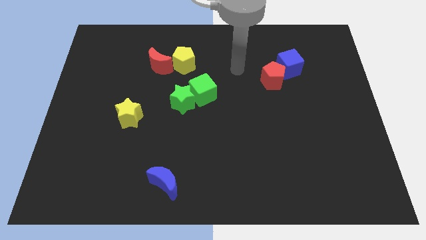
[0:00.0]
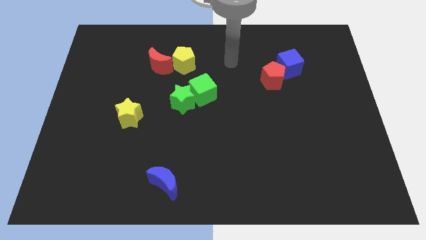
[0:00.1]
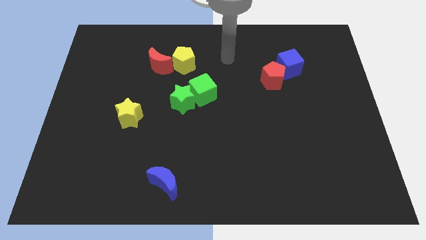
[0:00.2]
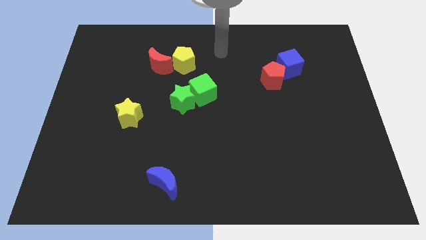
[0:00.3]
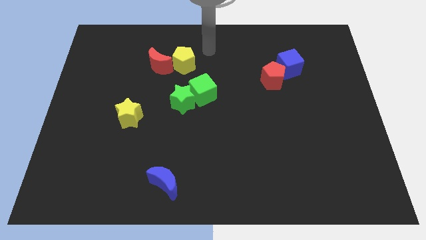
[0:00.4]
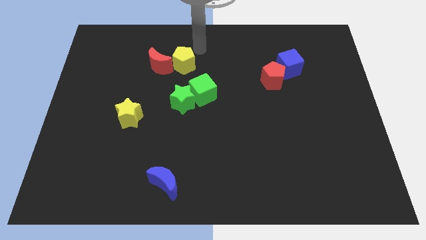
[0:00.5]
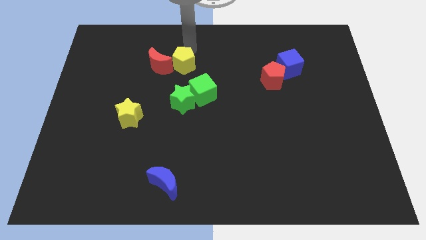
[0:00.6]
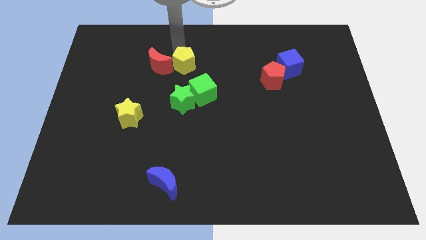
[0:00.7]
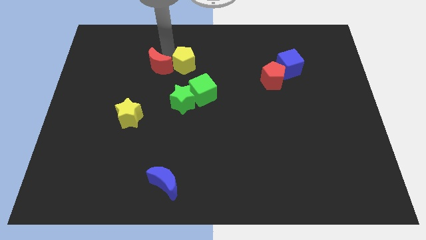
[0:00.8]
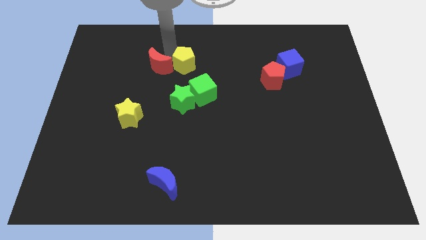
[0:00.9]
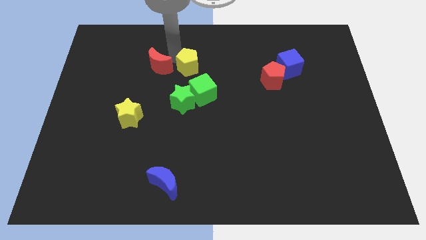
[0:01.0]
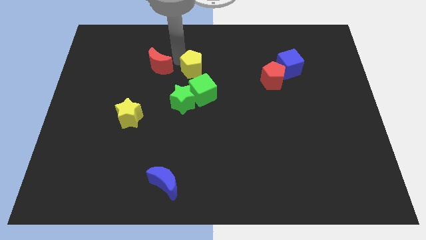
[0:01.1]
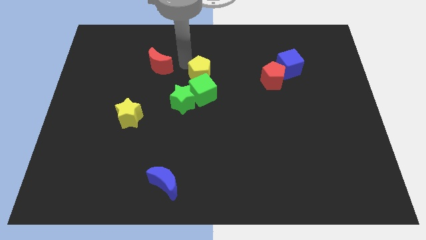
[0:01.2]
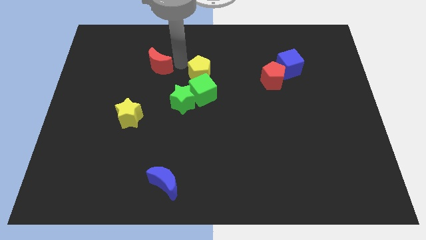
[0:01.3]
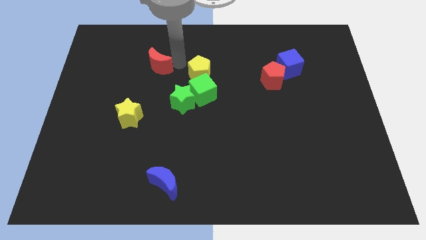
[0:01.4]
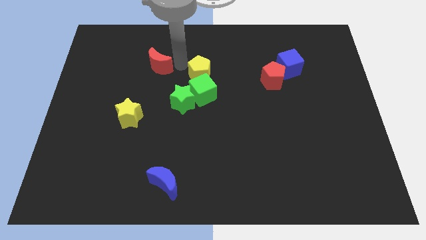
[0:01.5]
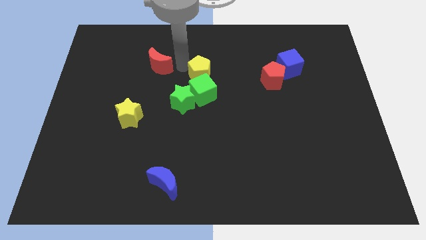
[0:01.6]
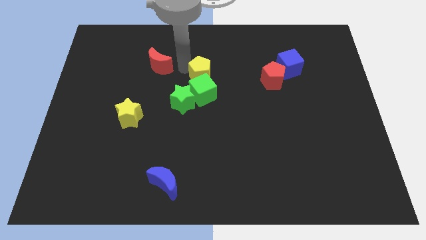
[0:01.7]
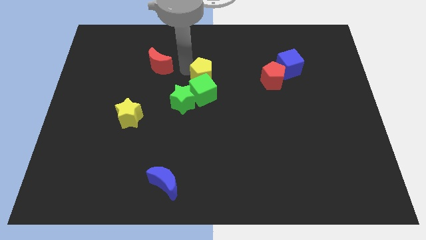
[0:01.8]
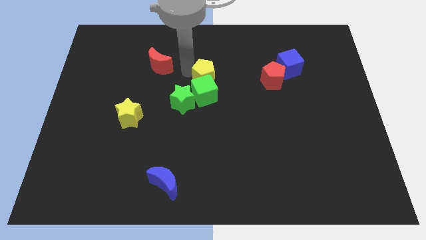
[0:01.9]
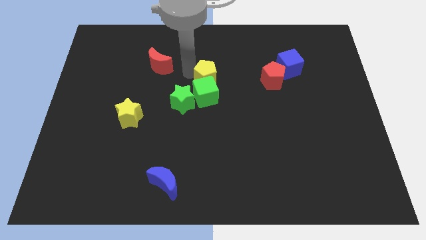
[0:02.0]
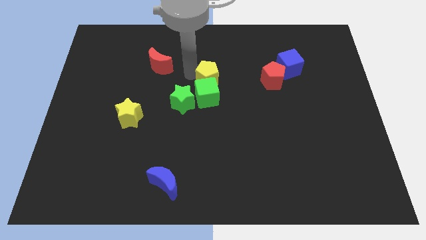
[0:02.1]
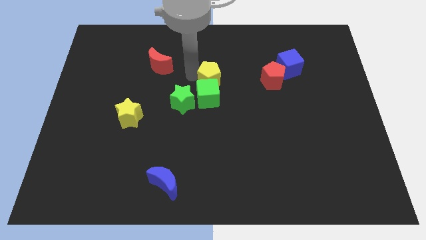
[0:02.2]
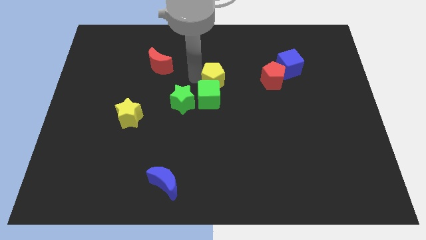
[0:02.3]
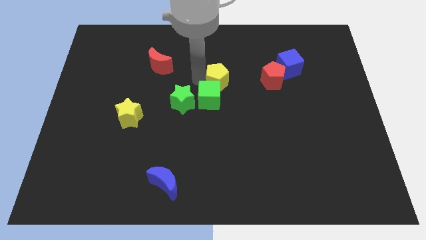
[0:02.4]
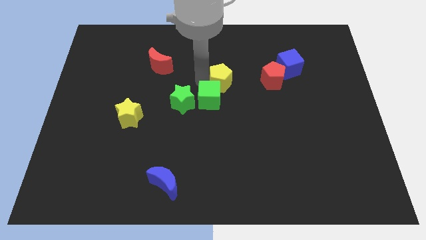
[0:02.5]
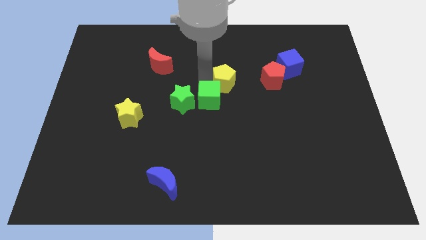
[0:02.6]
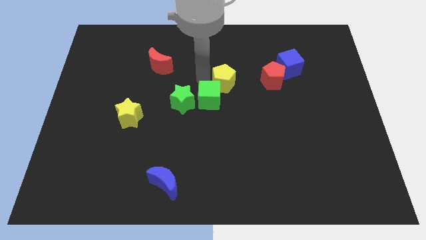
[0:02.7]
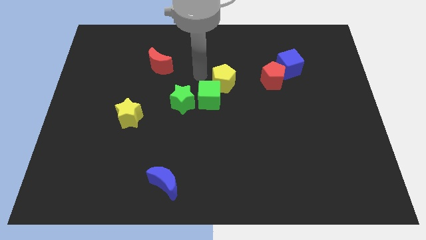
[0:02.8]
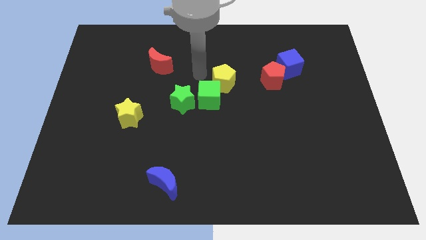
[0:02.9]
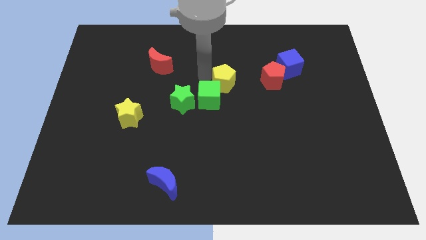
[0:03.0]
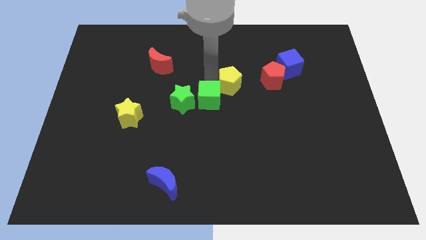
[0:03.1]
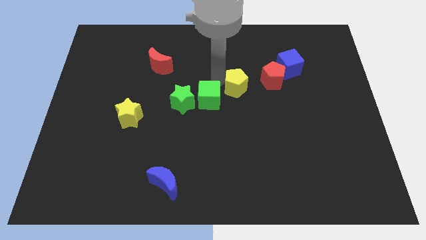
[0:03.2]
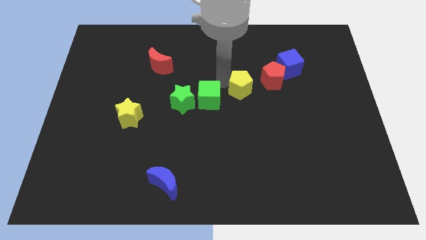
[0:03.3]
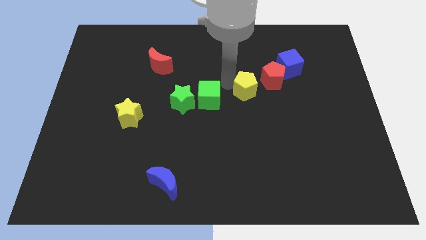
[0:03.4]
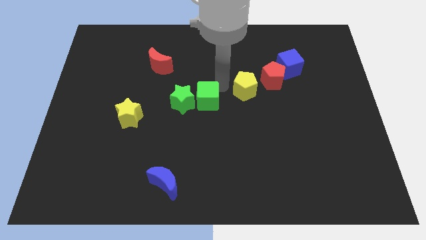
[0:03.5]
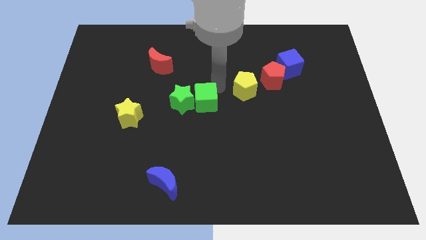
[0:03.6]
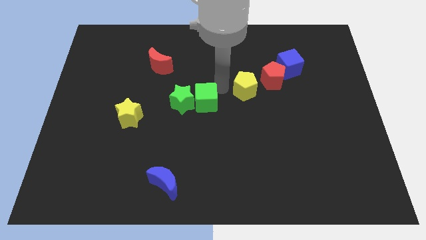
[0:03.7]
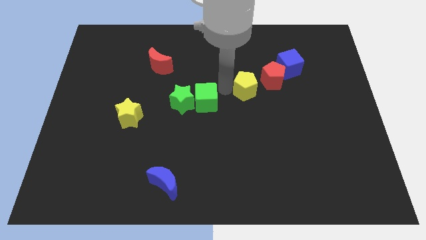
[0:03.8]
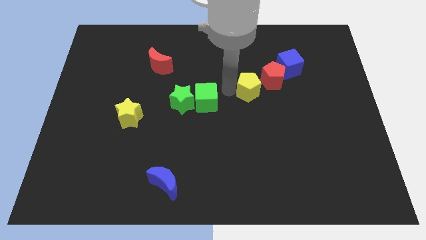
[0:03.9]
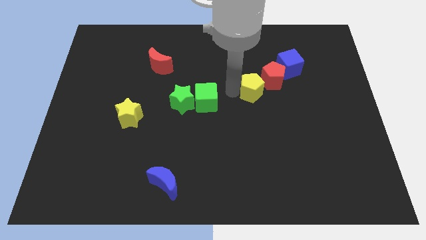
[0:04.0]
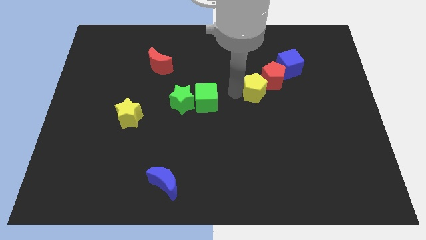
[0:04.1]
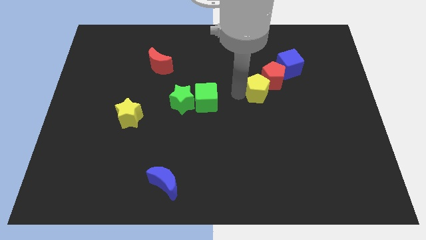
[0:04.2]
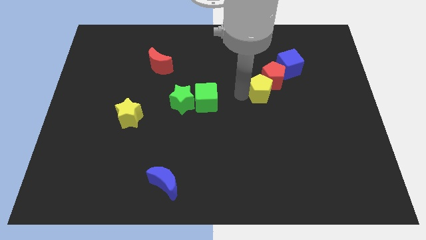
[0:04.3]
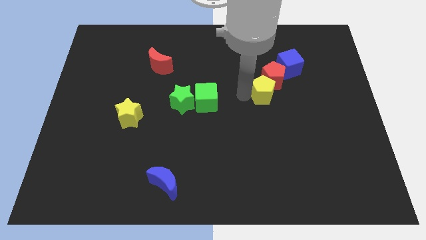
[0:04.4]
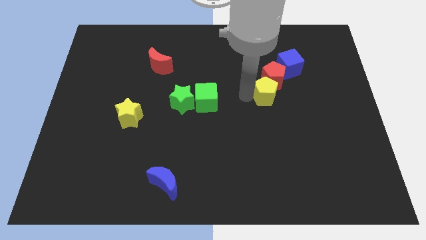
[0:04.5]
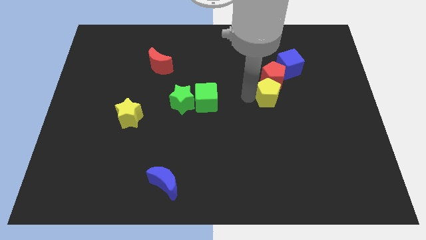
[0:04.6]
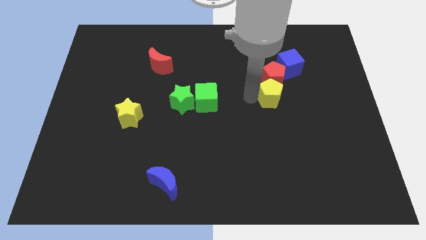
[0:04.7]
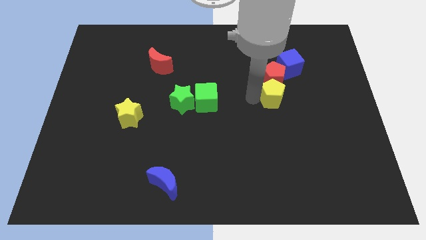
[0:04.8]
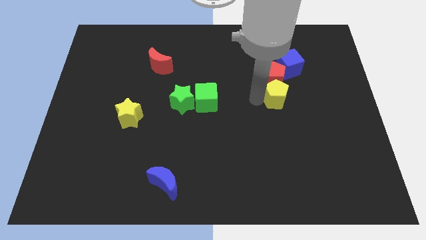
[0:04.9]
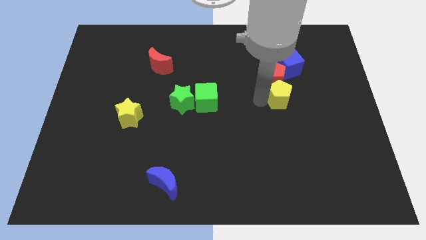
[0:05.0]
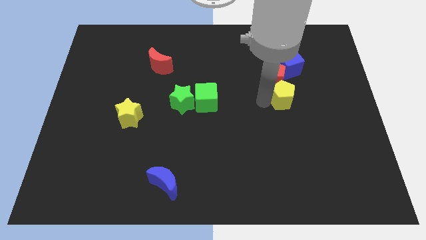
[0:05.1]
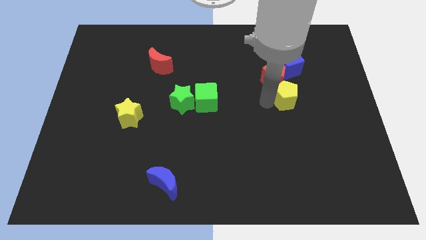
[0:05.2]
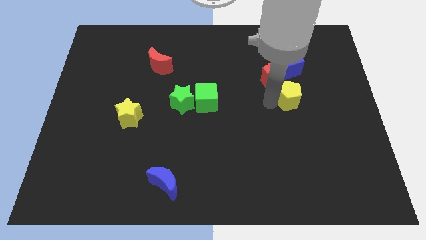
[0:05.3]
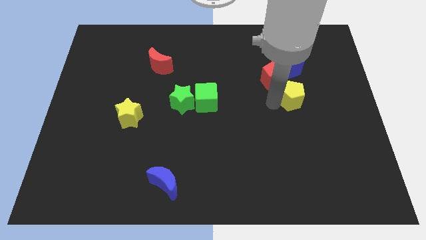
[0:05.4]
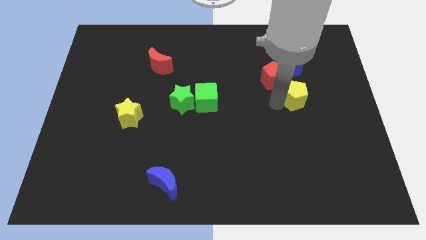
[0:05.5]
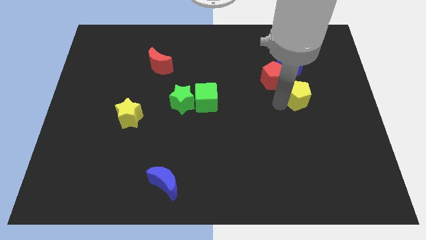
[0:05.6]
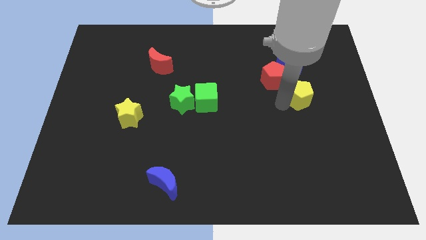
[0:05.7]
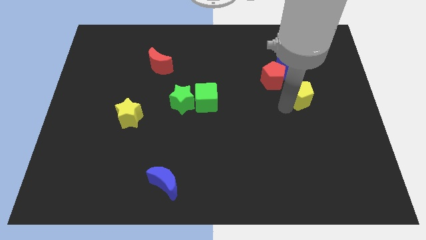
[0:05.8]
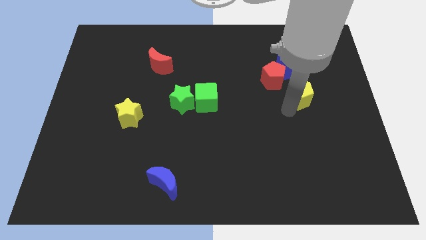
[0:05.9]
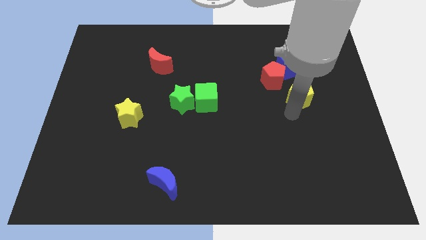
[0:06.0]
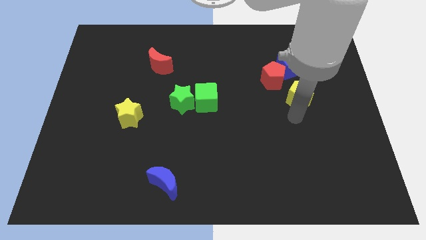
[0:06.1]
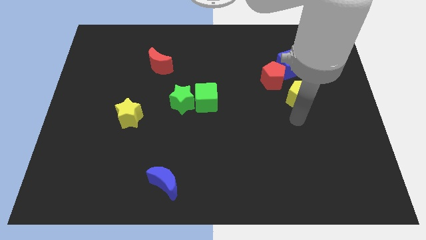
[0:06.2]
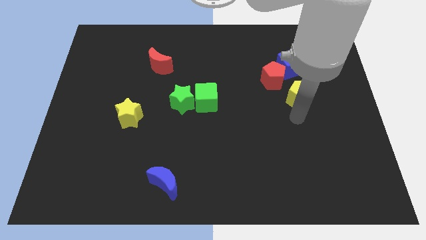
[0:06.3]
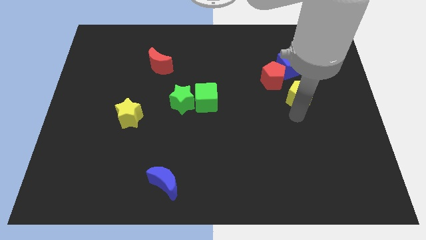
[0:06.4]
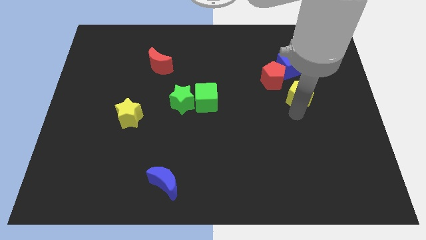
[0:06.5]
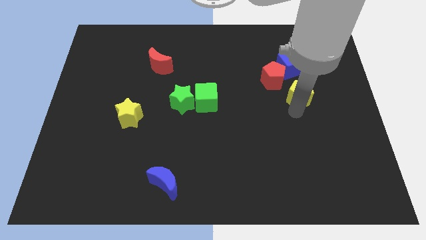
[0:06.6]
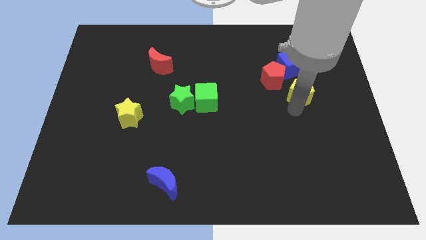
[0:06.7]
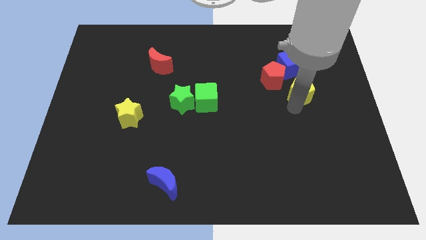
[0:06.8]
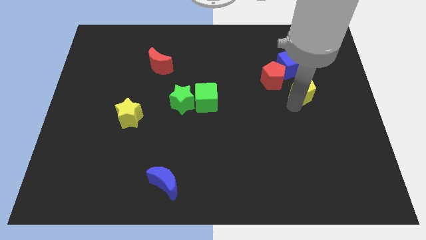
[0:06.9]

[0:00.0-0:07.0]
slide the yellow pentagon just right of the red pentagon
